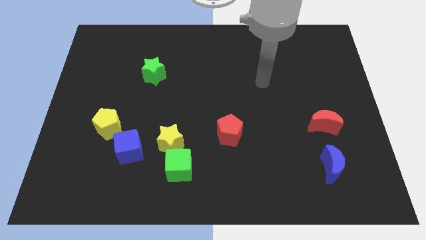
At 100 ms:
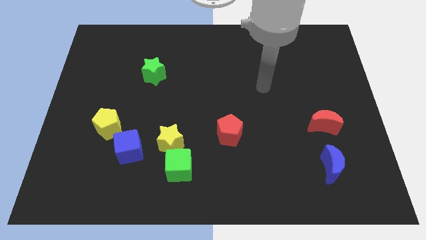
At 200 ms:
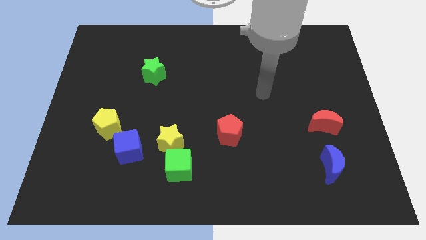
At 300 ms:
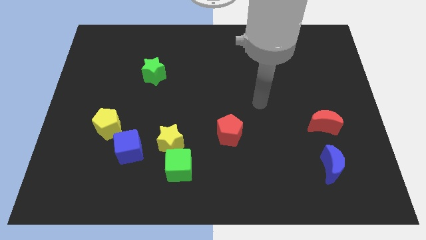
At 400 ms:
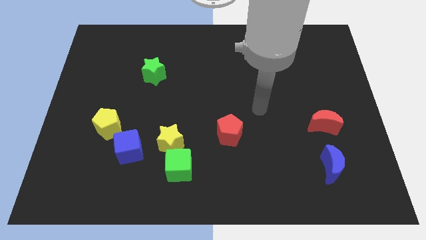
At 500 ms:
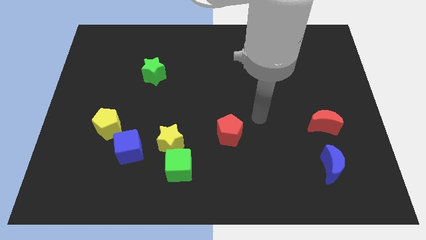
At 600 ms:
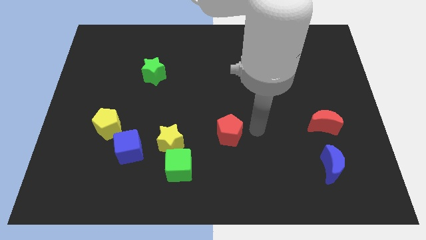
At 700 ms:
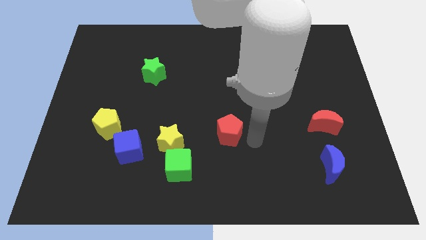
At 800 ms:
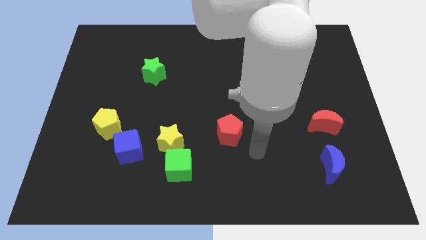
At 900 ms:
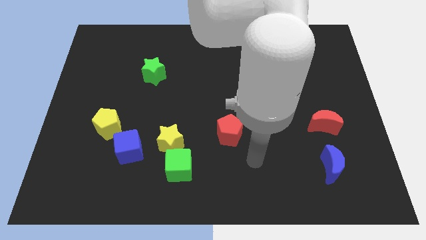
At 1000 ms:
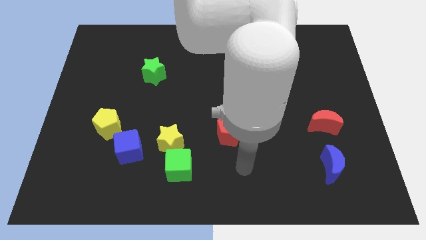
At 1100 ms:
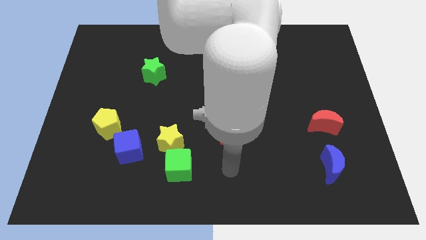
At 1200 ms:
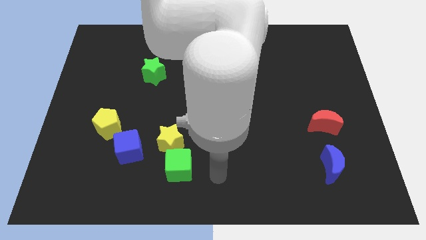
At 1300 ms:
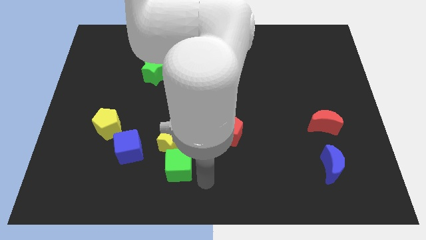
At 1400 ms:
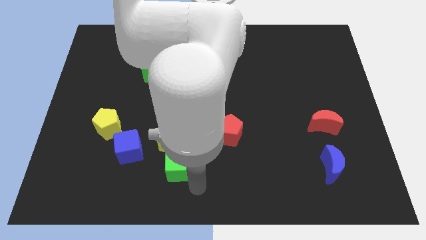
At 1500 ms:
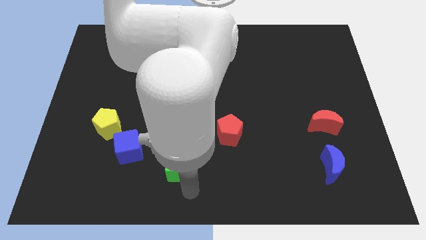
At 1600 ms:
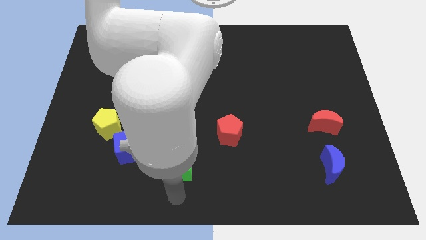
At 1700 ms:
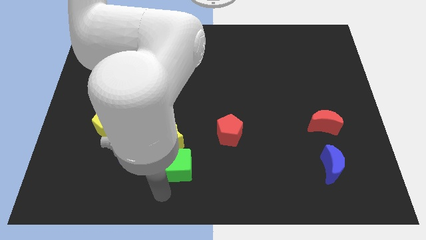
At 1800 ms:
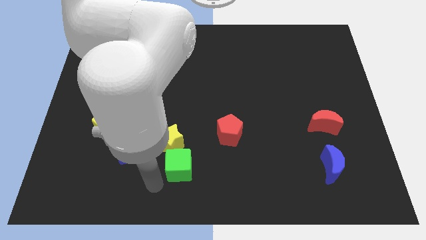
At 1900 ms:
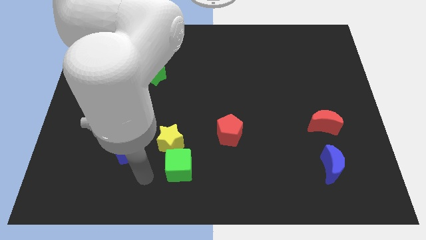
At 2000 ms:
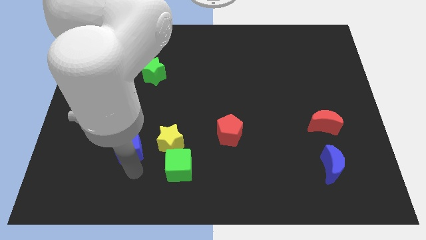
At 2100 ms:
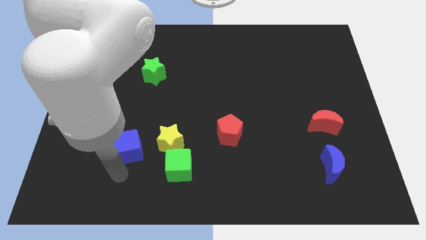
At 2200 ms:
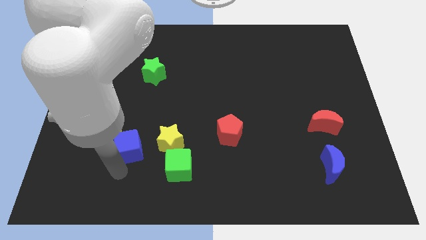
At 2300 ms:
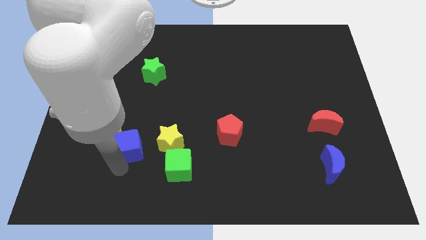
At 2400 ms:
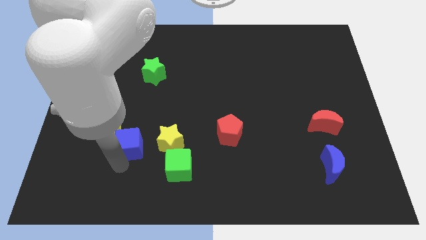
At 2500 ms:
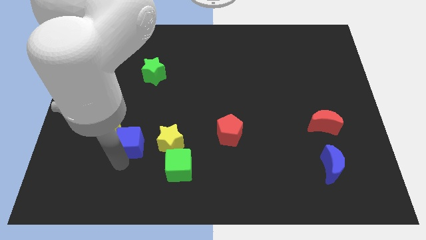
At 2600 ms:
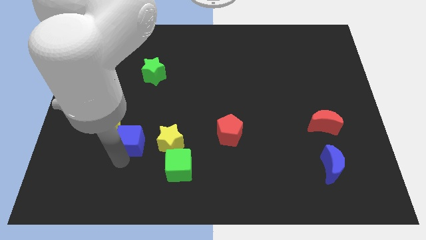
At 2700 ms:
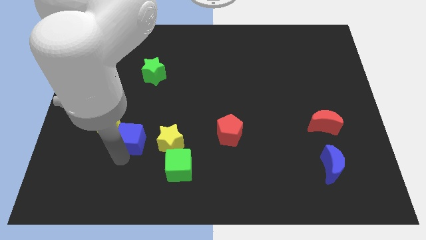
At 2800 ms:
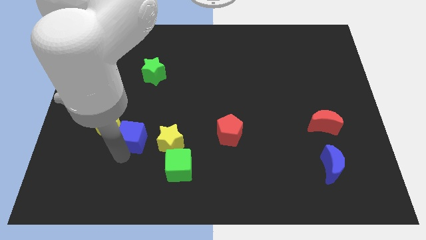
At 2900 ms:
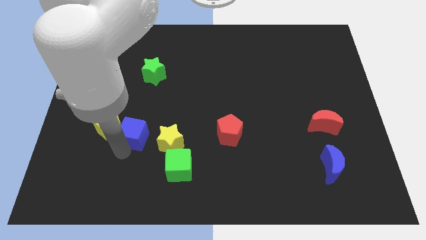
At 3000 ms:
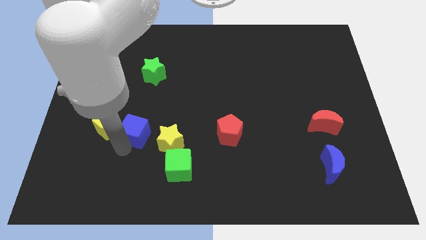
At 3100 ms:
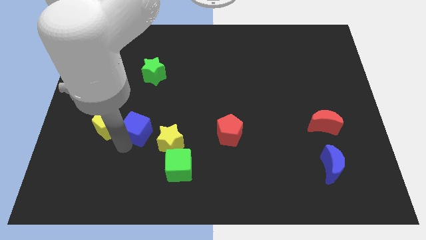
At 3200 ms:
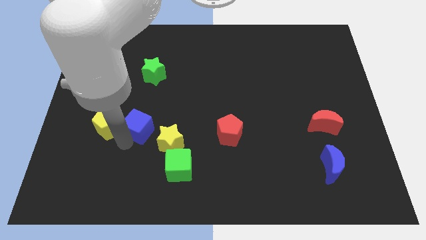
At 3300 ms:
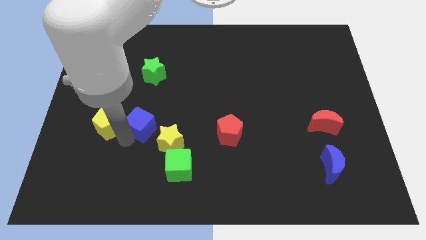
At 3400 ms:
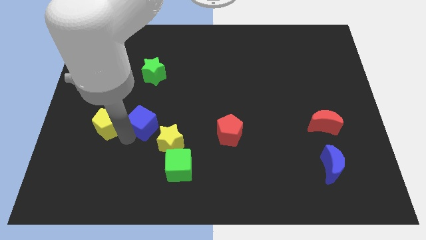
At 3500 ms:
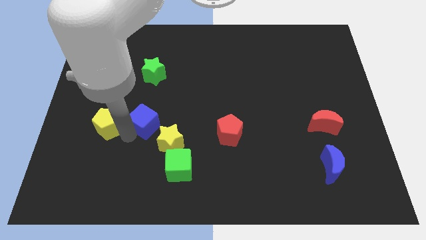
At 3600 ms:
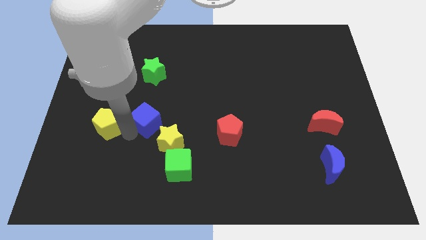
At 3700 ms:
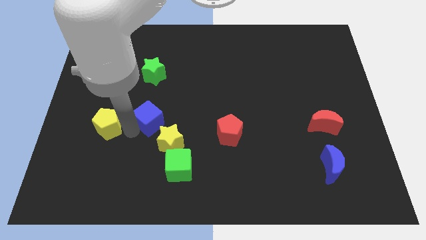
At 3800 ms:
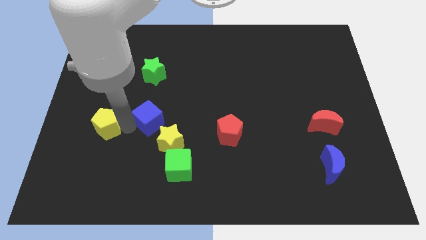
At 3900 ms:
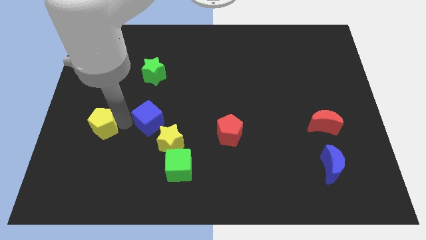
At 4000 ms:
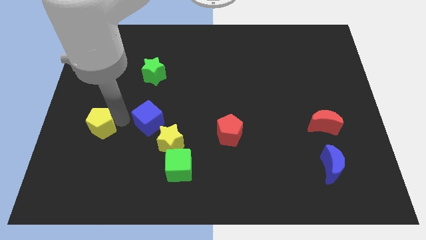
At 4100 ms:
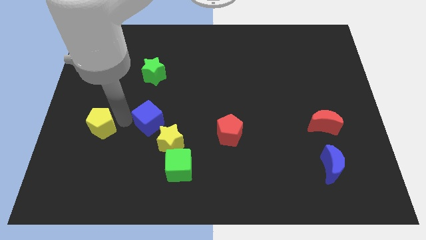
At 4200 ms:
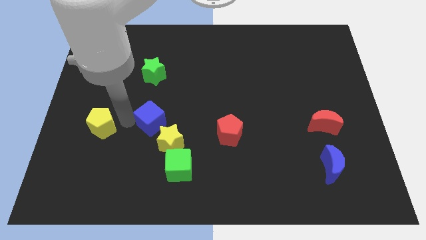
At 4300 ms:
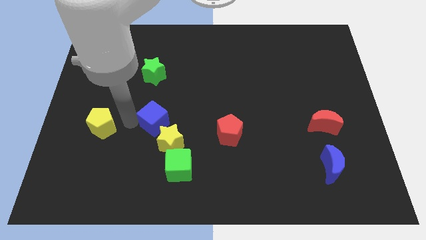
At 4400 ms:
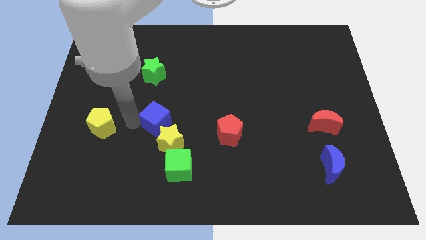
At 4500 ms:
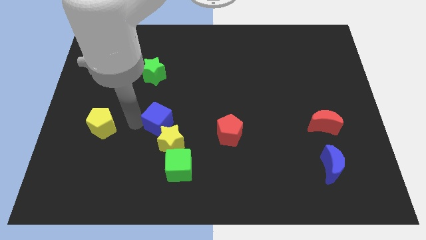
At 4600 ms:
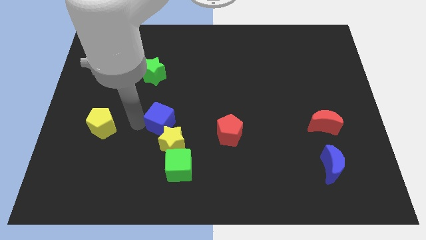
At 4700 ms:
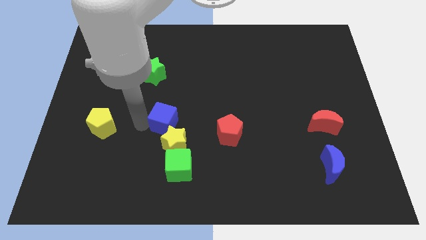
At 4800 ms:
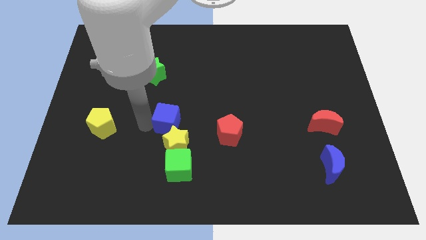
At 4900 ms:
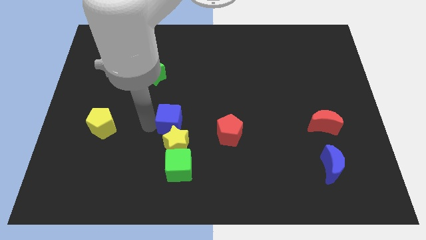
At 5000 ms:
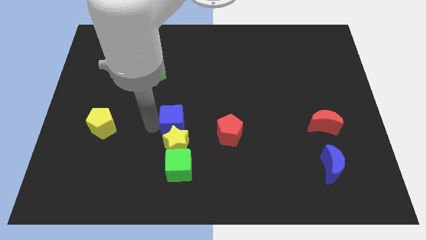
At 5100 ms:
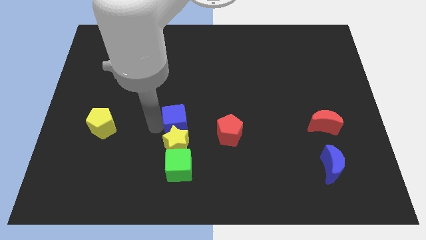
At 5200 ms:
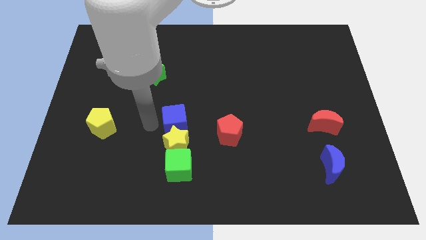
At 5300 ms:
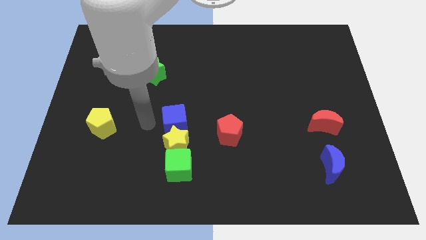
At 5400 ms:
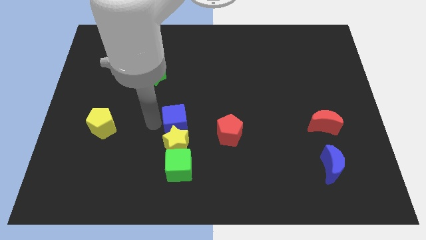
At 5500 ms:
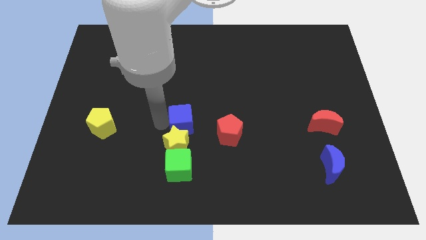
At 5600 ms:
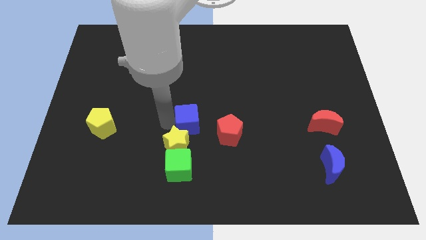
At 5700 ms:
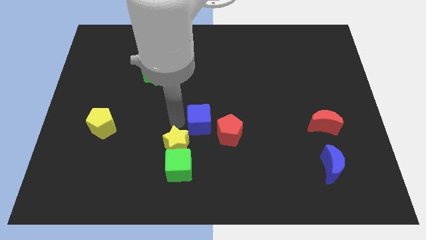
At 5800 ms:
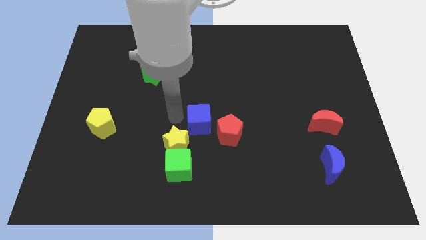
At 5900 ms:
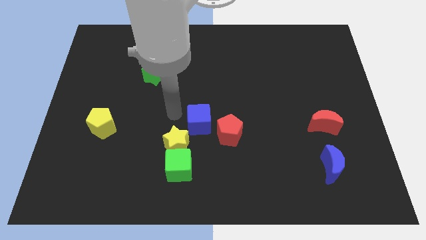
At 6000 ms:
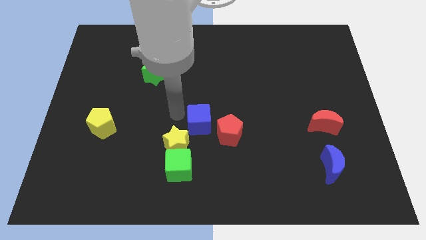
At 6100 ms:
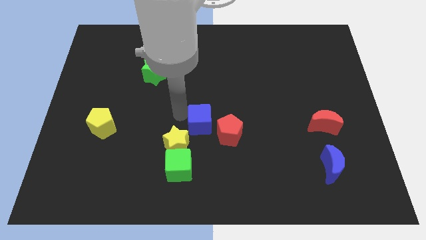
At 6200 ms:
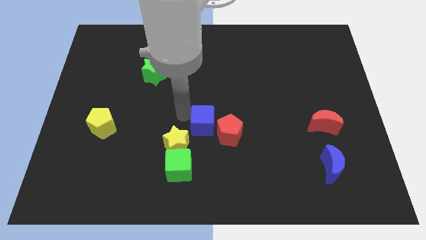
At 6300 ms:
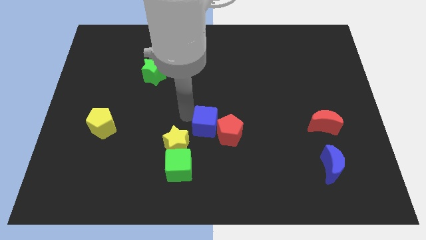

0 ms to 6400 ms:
put the blue cube to the red pentagon

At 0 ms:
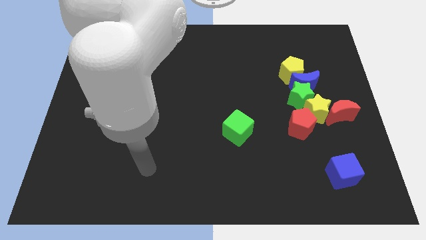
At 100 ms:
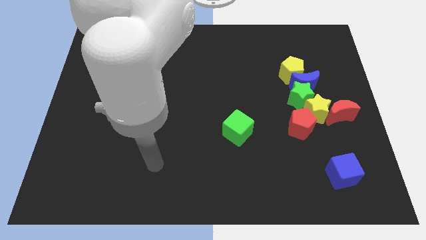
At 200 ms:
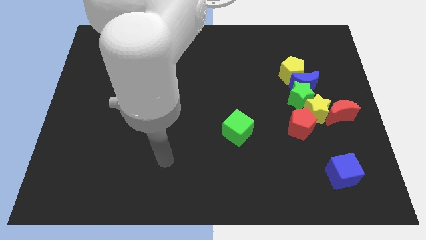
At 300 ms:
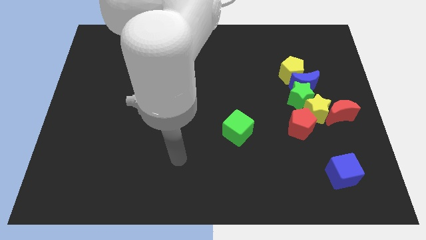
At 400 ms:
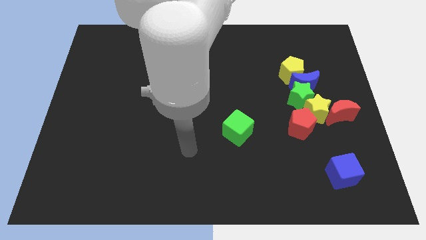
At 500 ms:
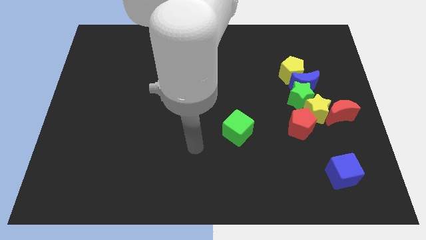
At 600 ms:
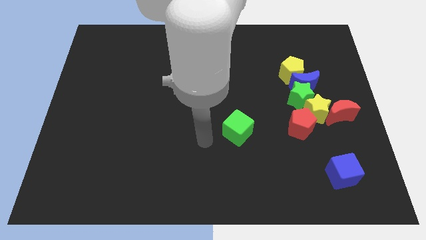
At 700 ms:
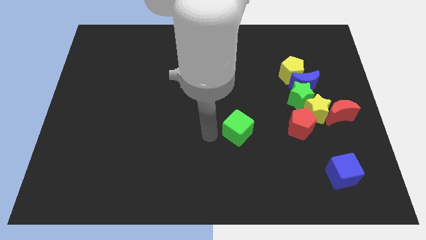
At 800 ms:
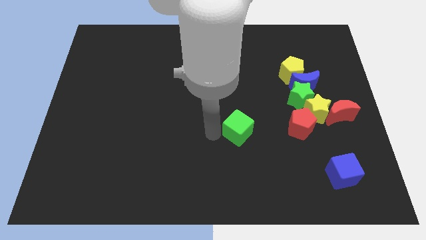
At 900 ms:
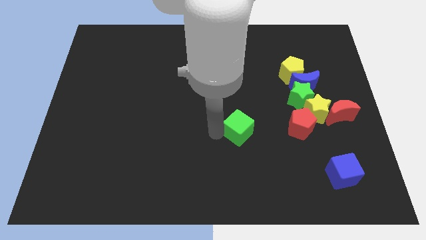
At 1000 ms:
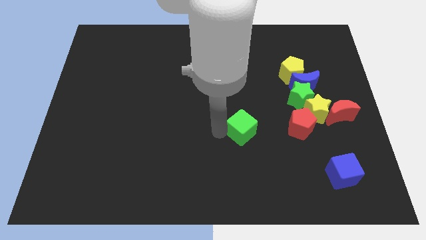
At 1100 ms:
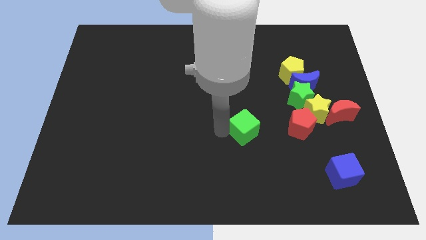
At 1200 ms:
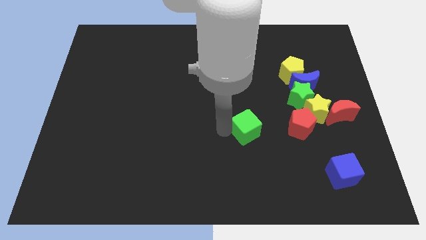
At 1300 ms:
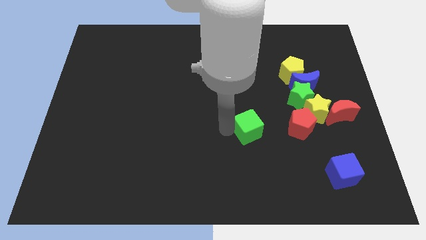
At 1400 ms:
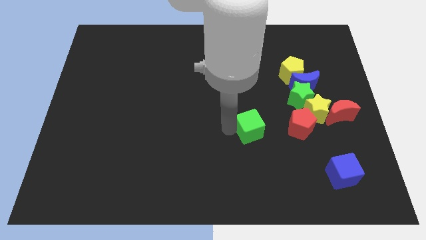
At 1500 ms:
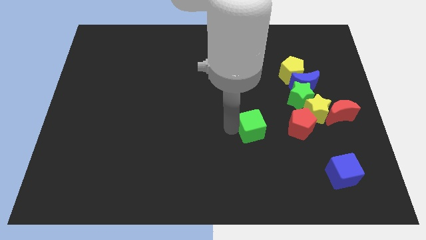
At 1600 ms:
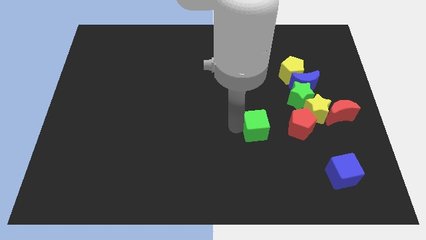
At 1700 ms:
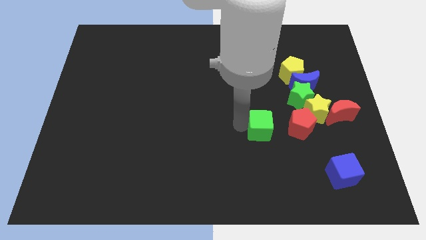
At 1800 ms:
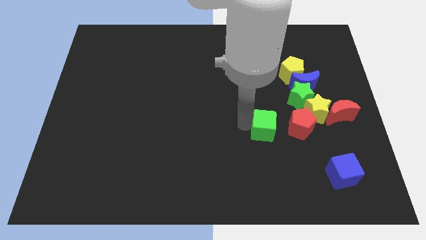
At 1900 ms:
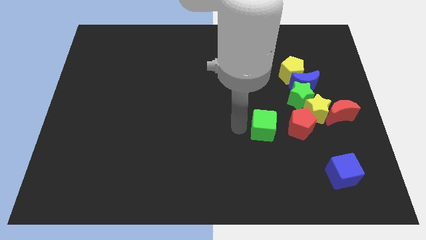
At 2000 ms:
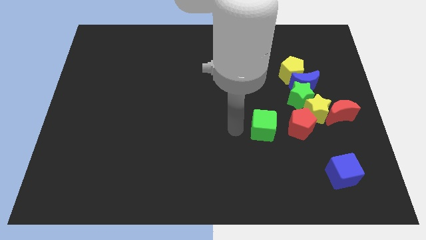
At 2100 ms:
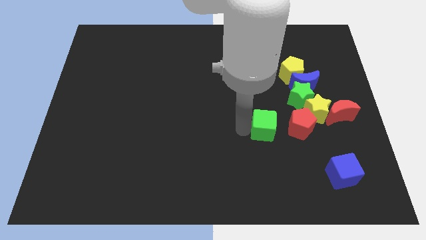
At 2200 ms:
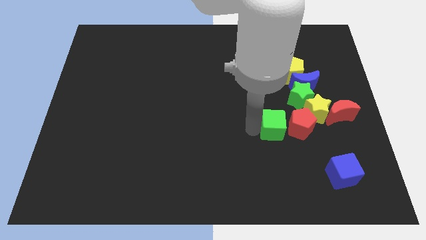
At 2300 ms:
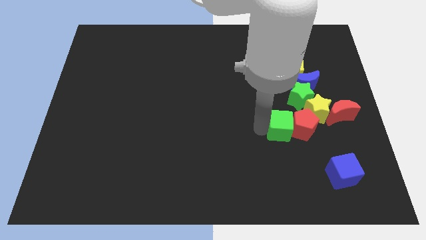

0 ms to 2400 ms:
slide the green cube towards the red pentagon
